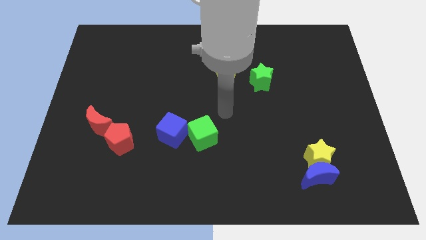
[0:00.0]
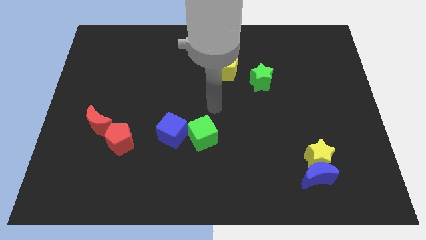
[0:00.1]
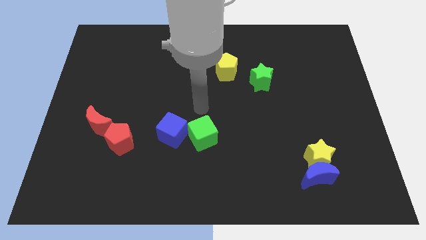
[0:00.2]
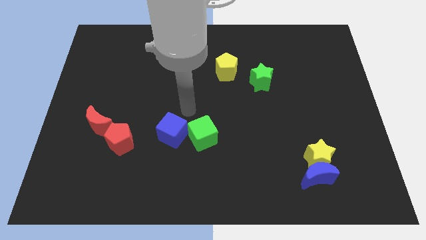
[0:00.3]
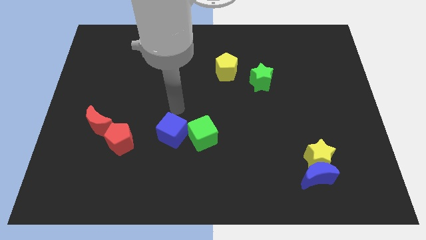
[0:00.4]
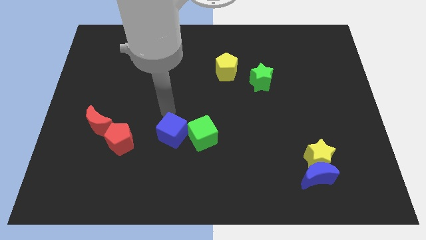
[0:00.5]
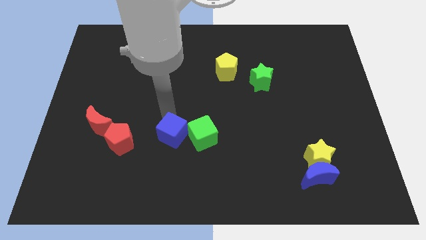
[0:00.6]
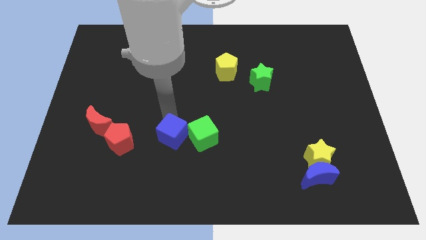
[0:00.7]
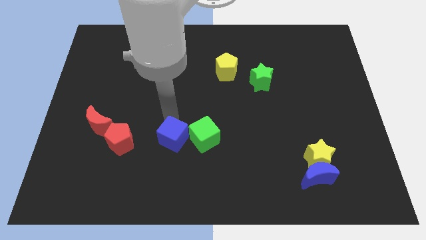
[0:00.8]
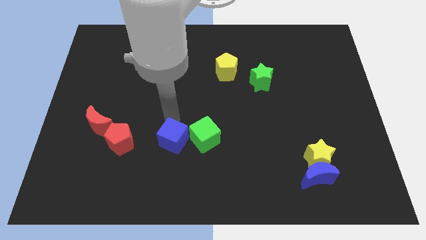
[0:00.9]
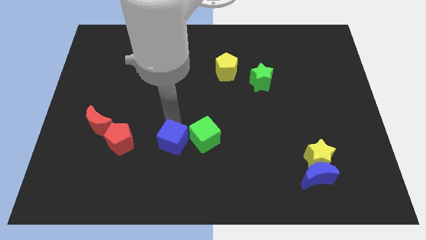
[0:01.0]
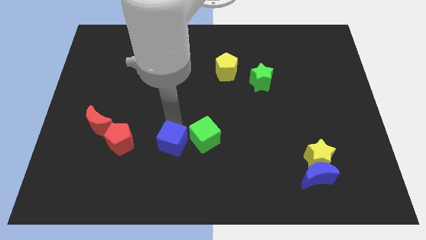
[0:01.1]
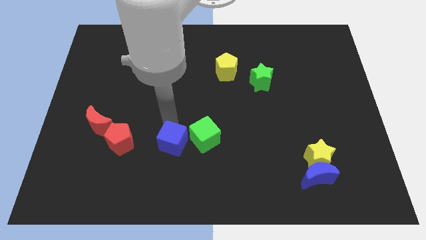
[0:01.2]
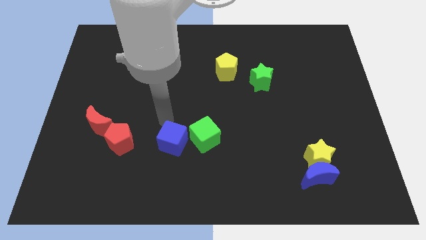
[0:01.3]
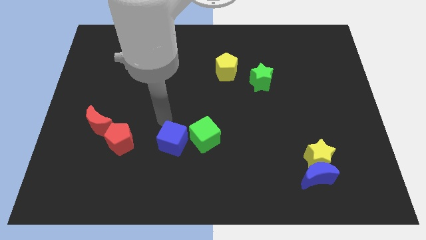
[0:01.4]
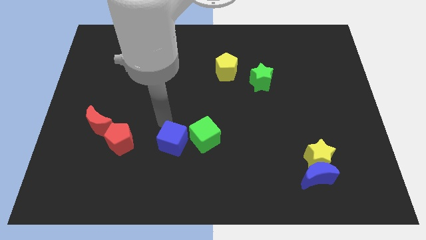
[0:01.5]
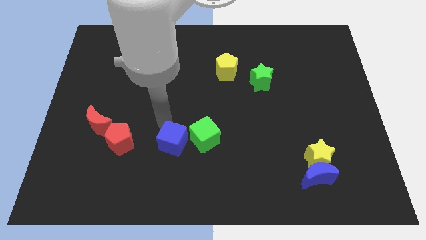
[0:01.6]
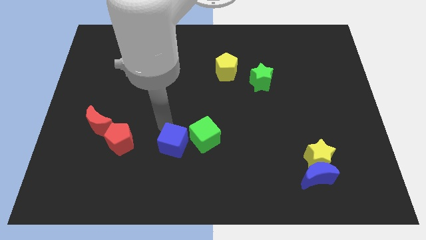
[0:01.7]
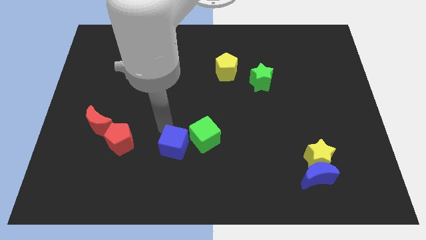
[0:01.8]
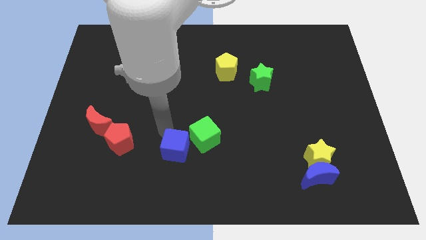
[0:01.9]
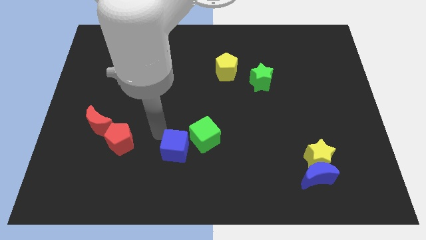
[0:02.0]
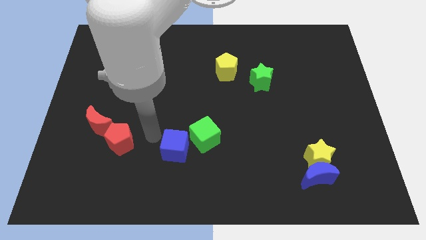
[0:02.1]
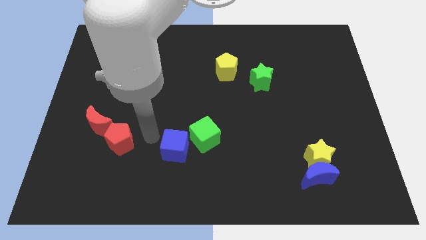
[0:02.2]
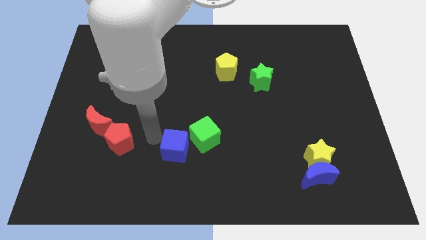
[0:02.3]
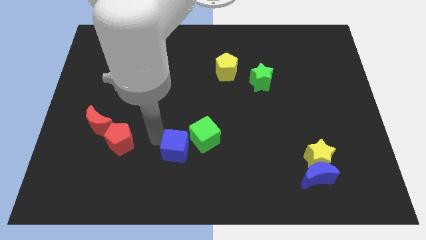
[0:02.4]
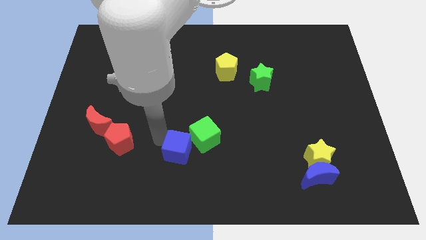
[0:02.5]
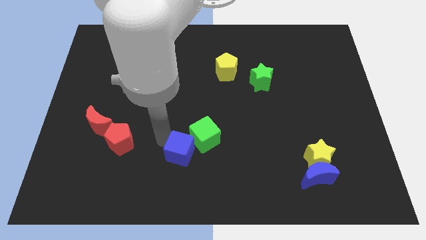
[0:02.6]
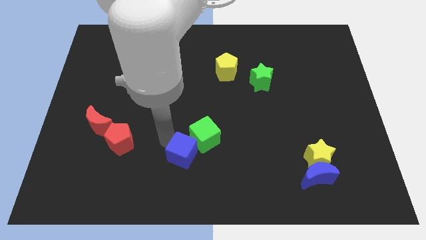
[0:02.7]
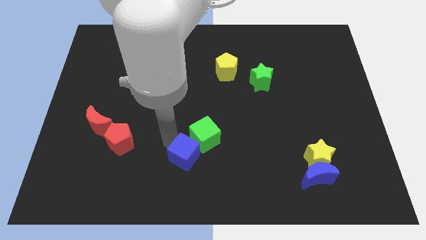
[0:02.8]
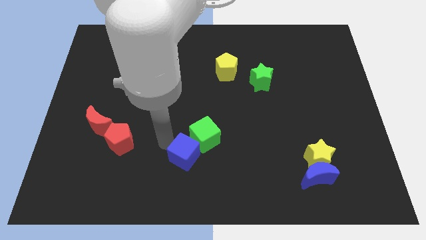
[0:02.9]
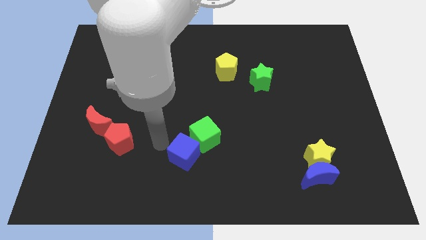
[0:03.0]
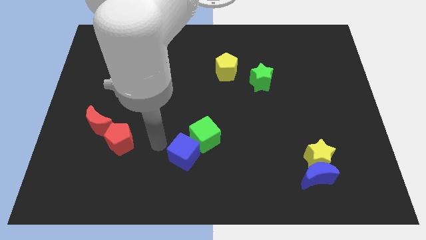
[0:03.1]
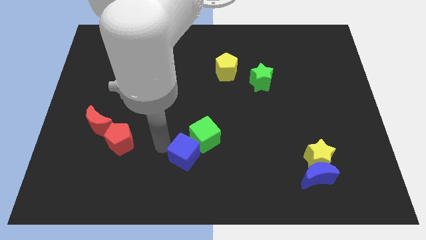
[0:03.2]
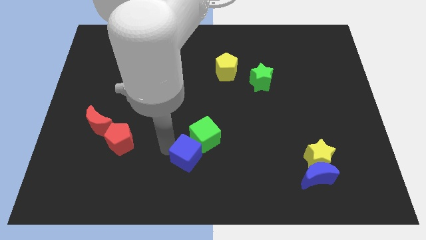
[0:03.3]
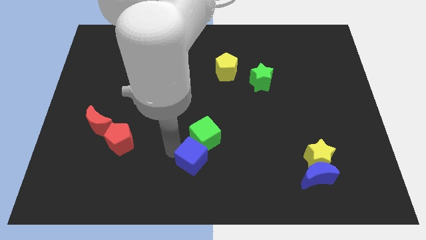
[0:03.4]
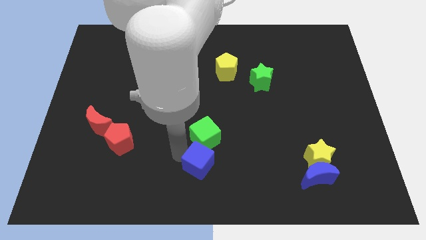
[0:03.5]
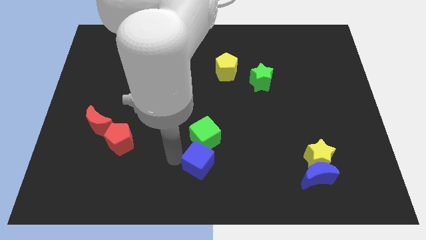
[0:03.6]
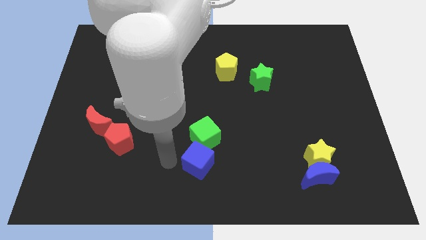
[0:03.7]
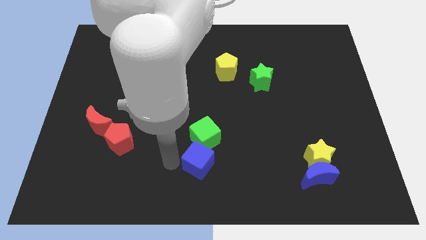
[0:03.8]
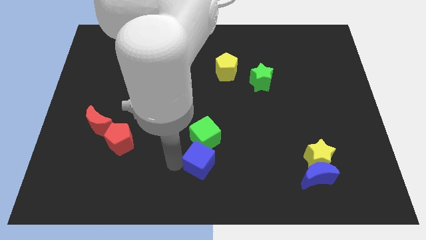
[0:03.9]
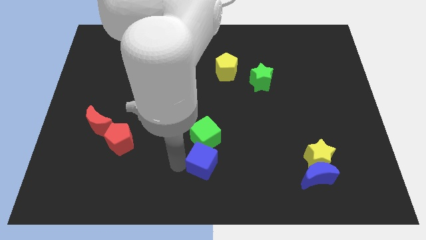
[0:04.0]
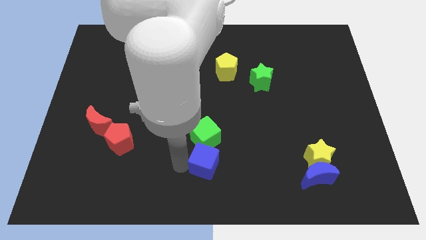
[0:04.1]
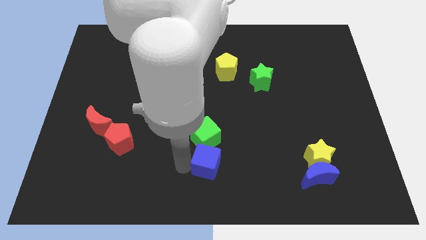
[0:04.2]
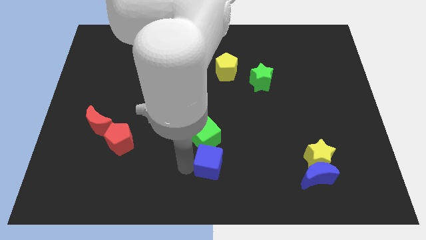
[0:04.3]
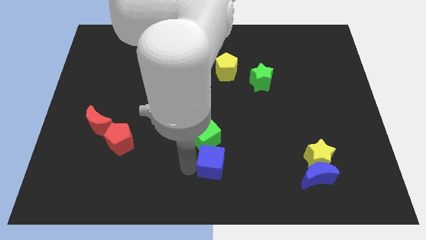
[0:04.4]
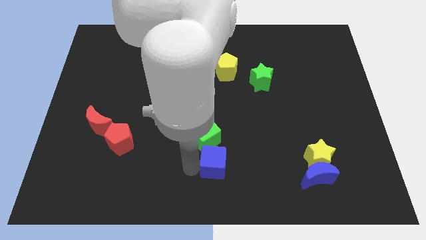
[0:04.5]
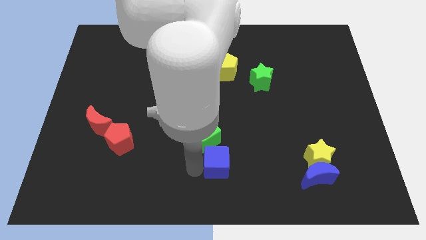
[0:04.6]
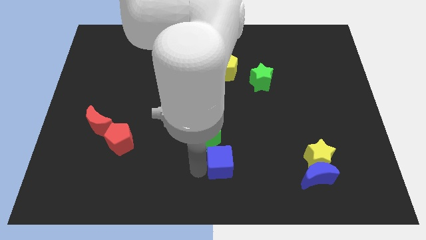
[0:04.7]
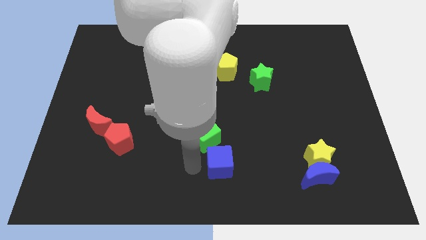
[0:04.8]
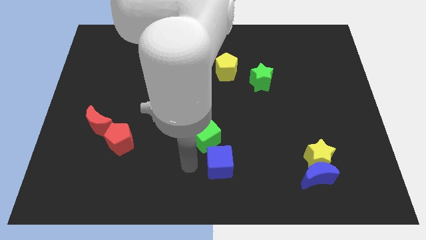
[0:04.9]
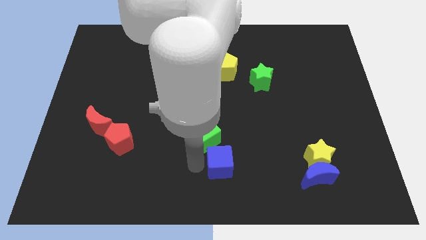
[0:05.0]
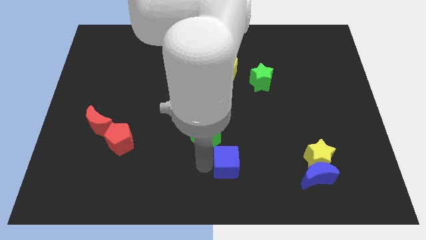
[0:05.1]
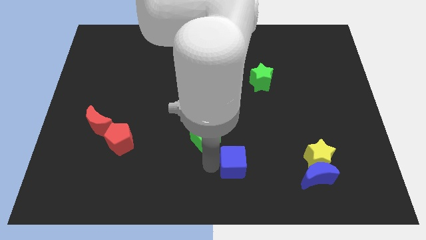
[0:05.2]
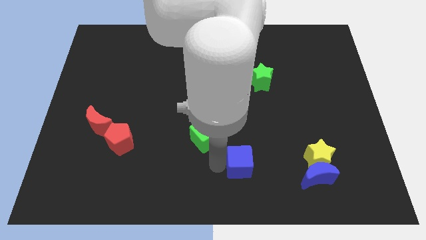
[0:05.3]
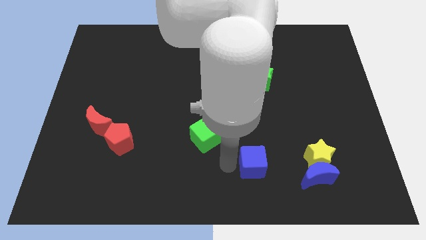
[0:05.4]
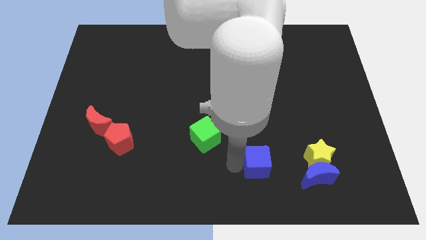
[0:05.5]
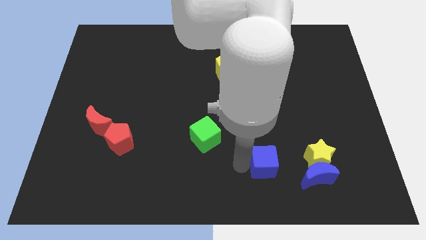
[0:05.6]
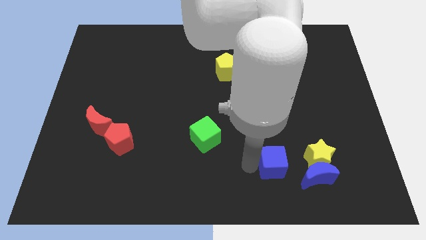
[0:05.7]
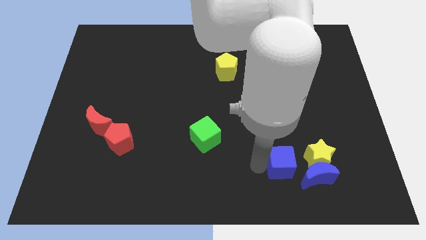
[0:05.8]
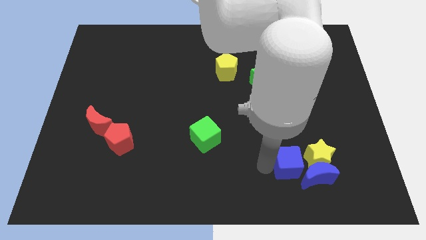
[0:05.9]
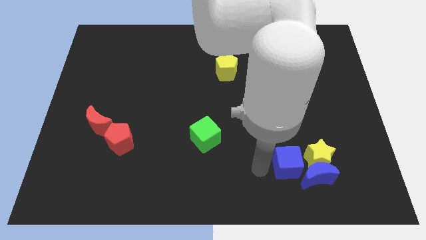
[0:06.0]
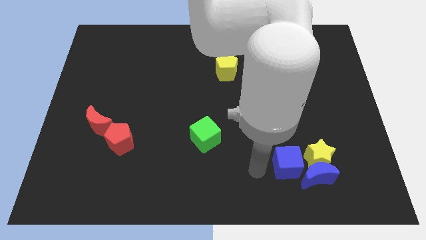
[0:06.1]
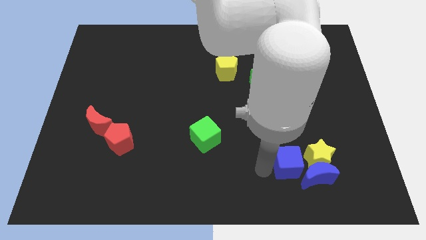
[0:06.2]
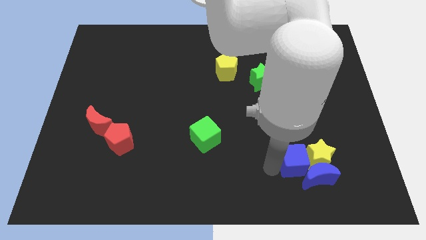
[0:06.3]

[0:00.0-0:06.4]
put the blue cube towards the yellow star

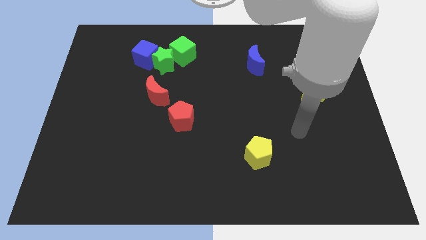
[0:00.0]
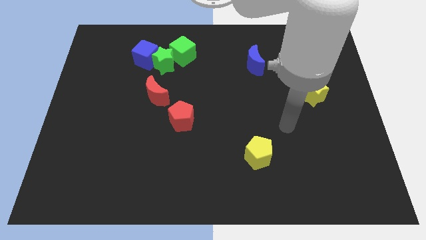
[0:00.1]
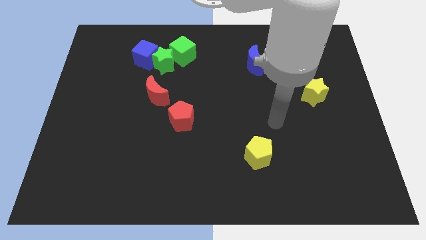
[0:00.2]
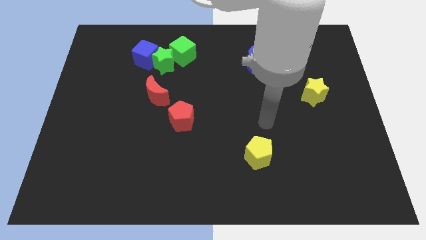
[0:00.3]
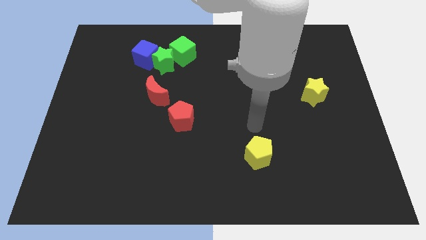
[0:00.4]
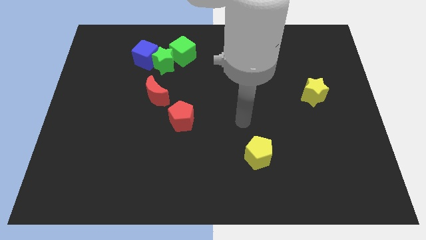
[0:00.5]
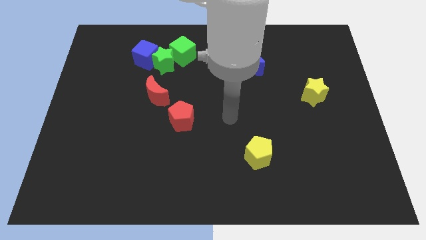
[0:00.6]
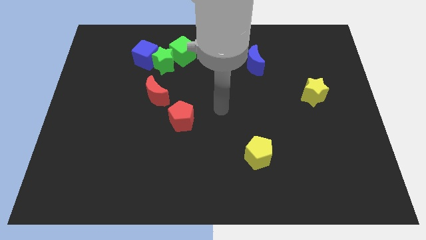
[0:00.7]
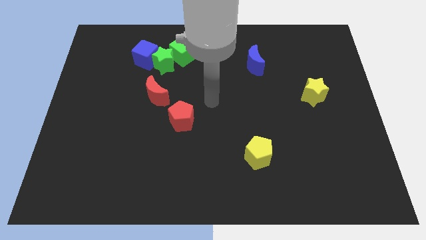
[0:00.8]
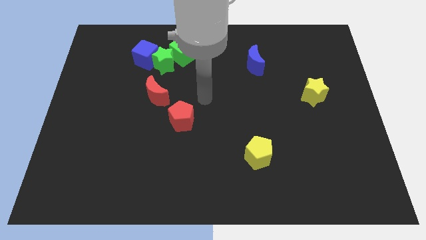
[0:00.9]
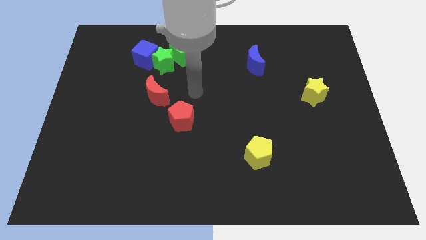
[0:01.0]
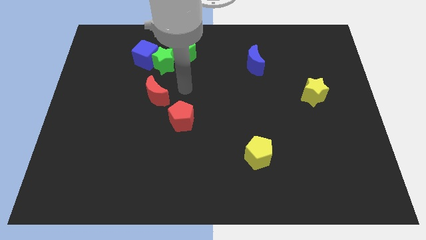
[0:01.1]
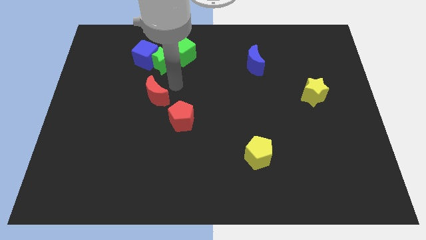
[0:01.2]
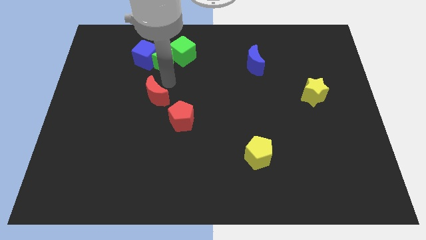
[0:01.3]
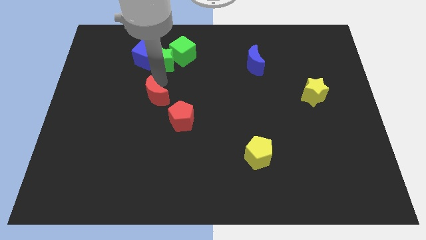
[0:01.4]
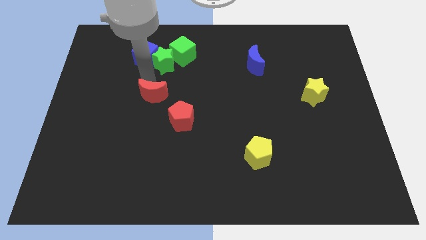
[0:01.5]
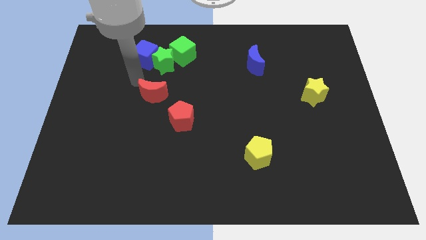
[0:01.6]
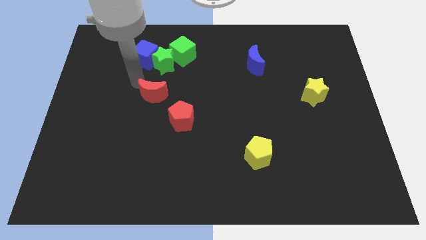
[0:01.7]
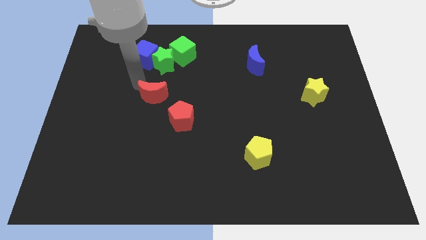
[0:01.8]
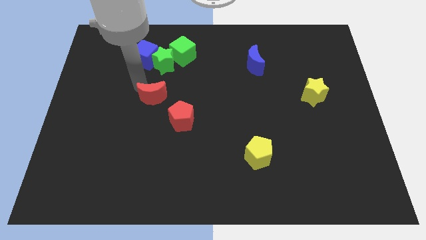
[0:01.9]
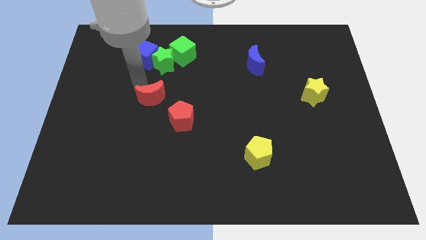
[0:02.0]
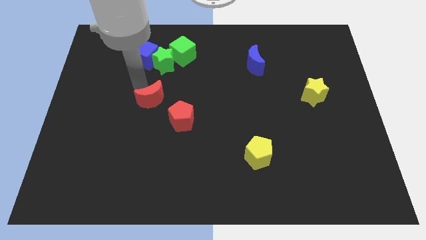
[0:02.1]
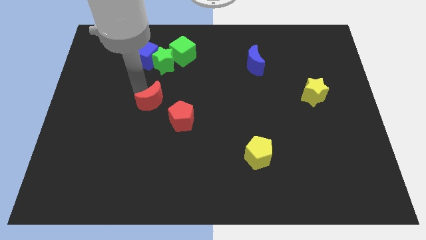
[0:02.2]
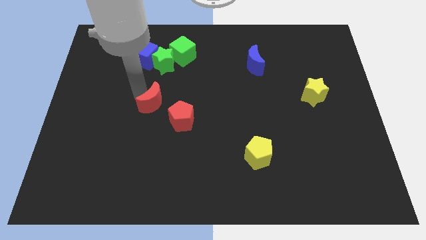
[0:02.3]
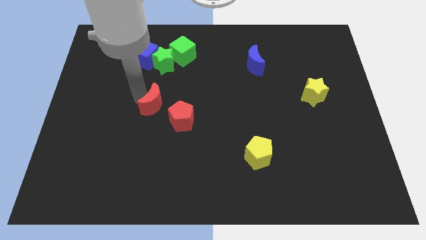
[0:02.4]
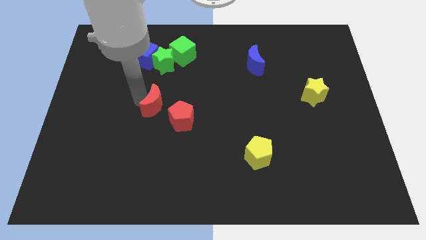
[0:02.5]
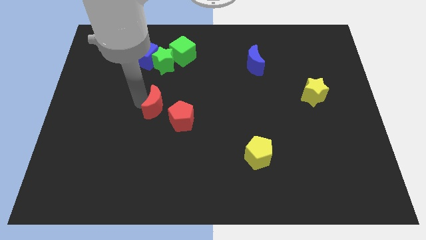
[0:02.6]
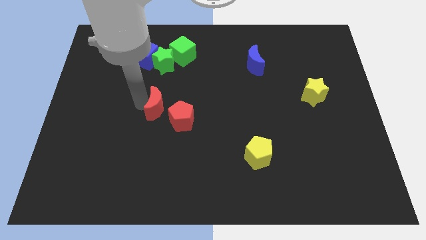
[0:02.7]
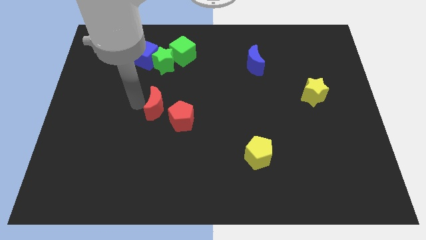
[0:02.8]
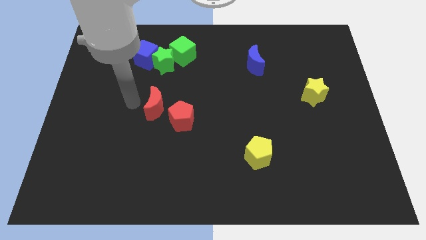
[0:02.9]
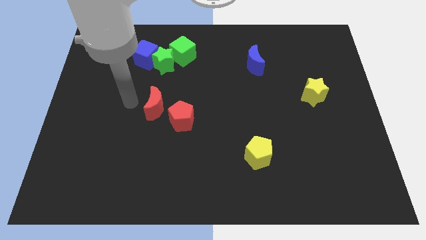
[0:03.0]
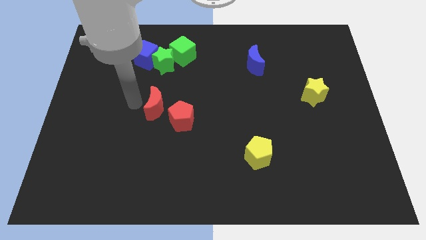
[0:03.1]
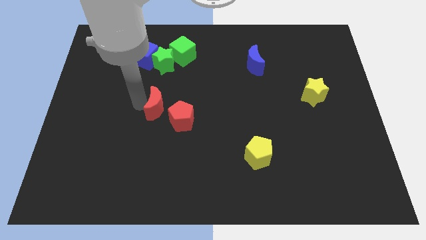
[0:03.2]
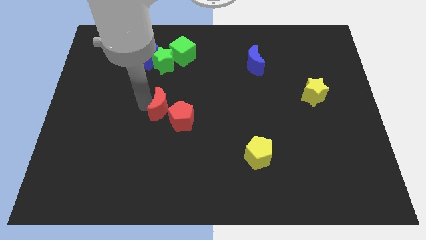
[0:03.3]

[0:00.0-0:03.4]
put the red moon next to the red pentagon
